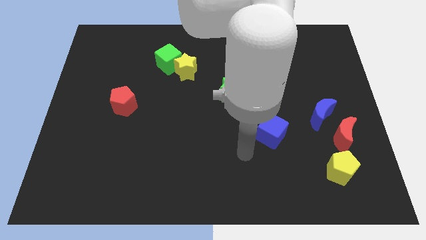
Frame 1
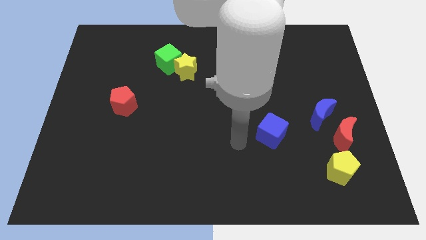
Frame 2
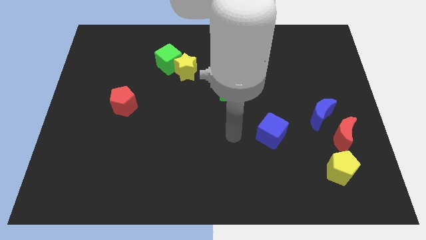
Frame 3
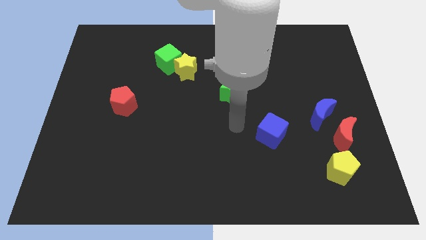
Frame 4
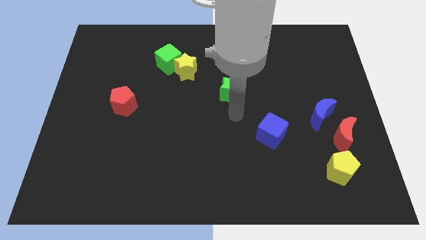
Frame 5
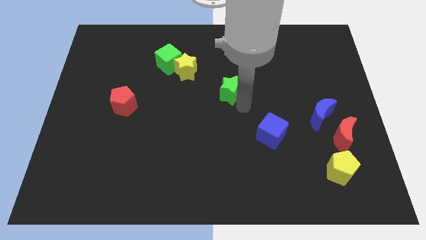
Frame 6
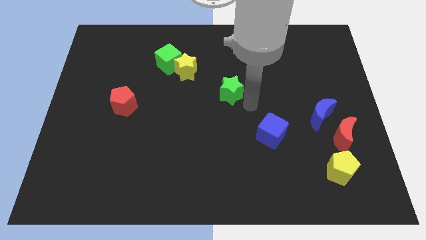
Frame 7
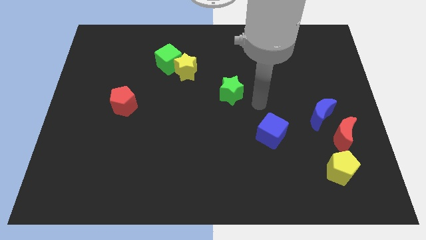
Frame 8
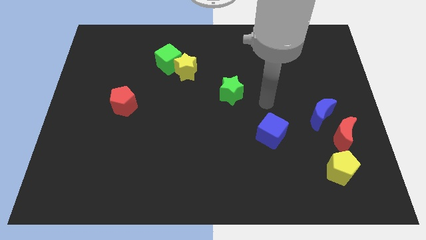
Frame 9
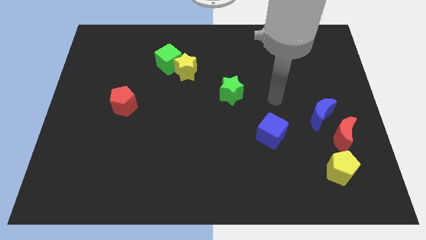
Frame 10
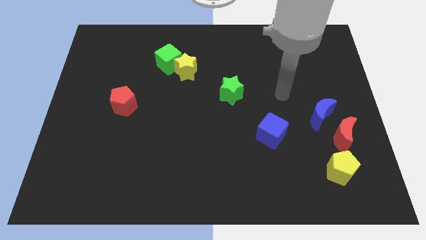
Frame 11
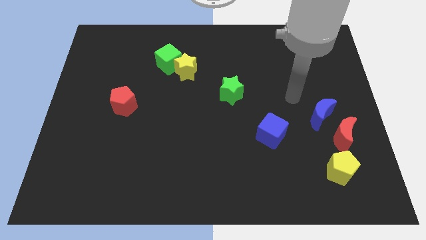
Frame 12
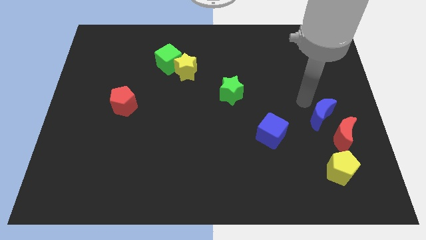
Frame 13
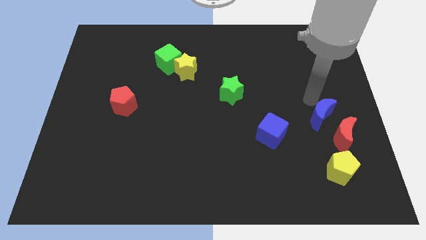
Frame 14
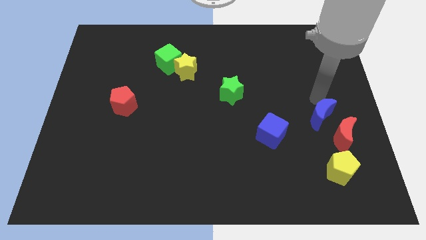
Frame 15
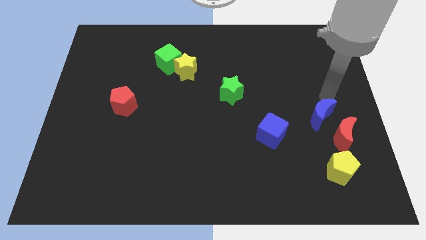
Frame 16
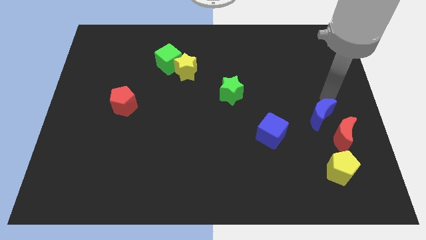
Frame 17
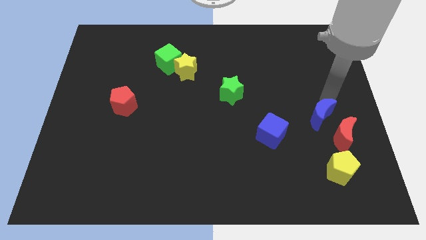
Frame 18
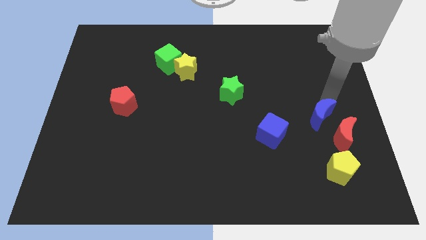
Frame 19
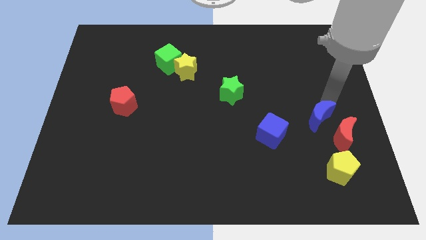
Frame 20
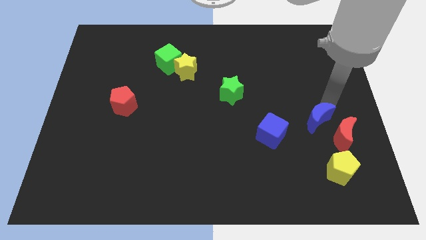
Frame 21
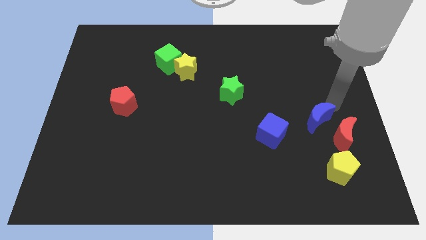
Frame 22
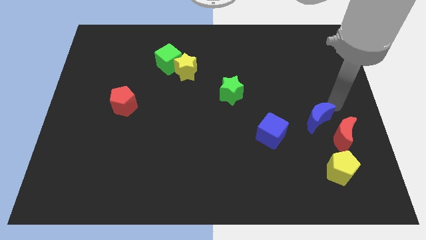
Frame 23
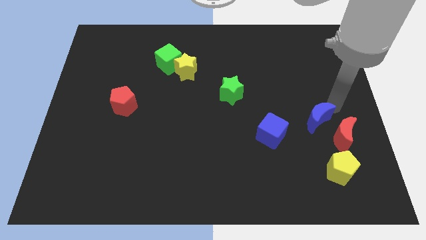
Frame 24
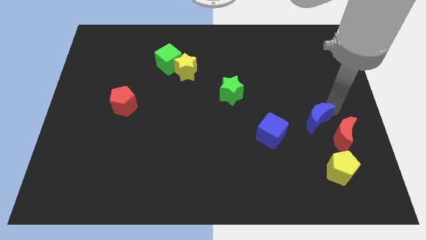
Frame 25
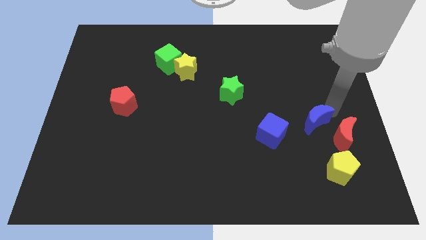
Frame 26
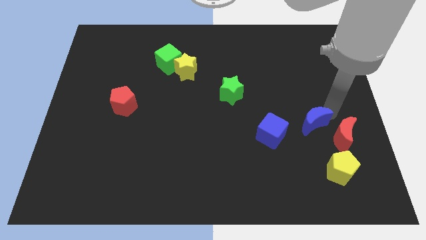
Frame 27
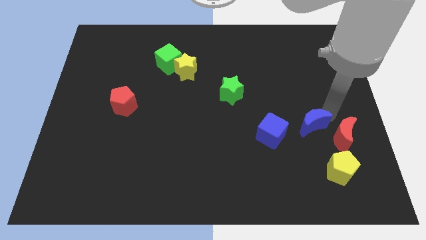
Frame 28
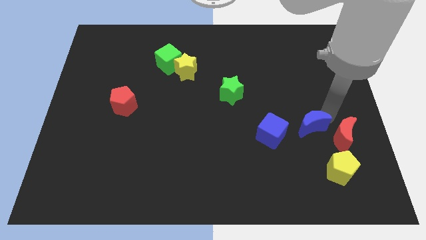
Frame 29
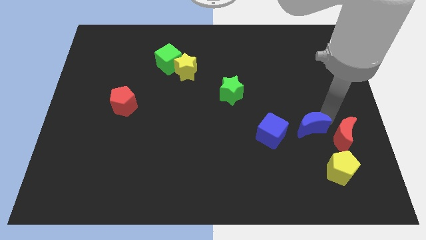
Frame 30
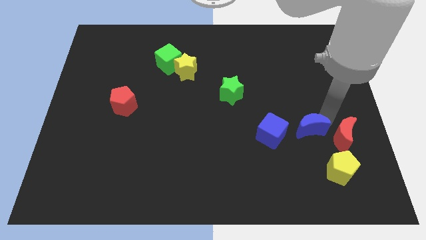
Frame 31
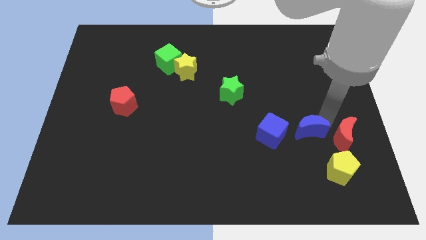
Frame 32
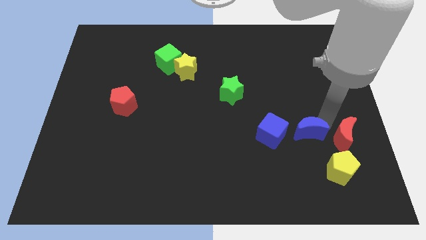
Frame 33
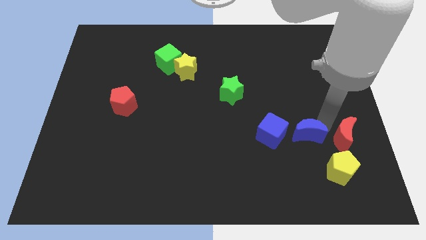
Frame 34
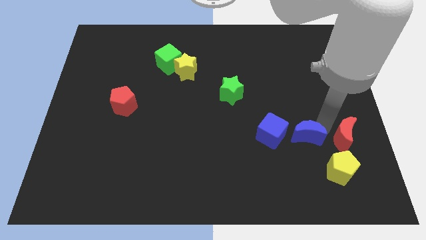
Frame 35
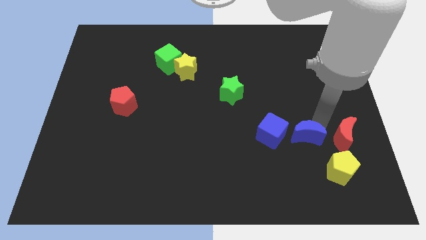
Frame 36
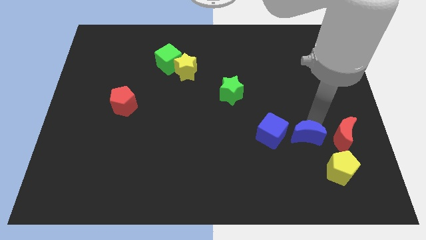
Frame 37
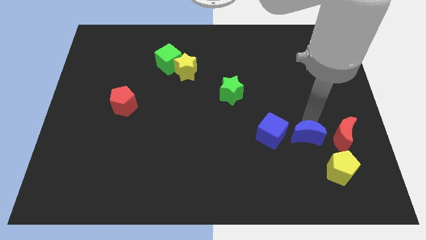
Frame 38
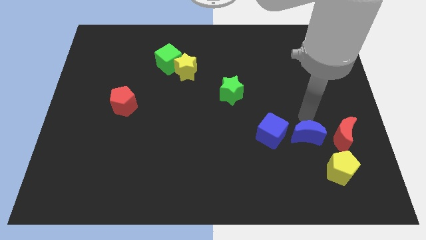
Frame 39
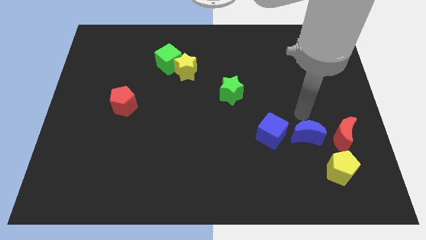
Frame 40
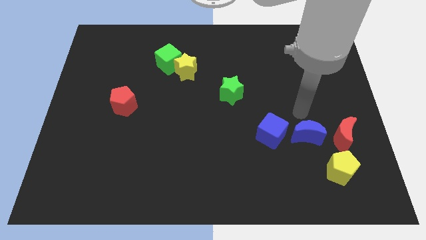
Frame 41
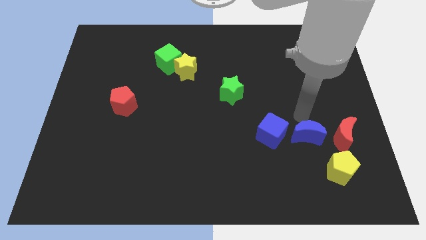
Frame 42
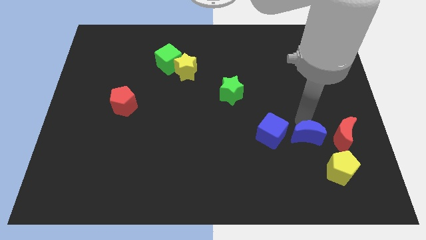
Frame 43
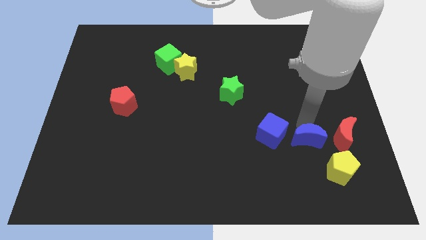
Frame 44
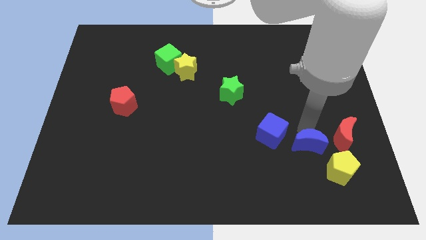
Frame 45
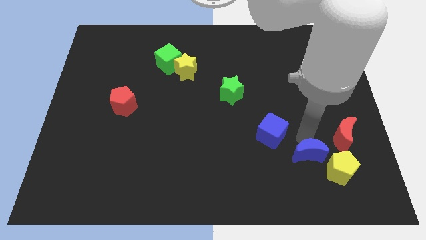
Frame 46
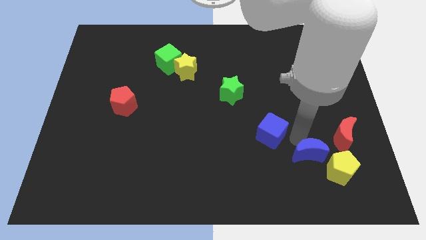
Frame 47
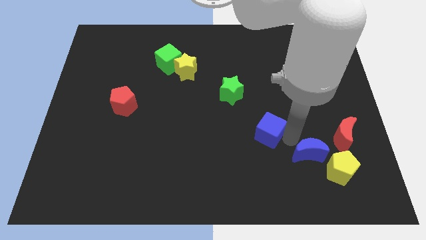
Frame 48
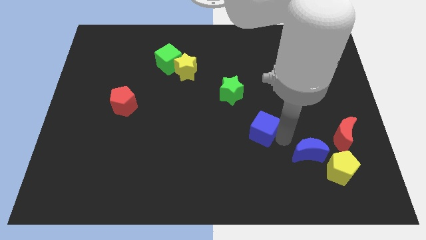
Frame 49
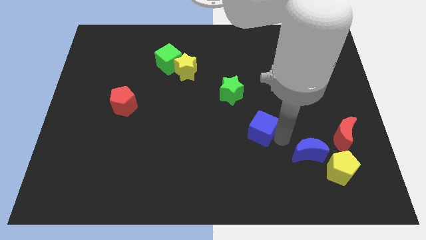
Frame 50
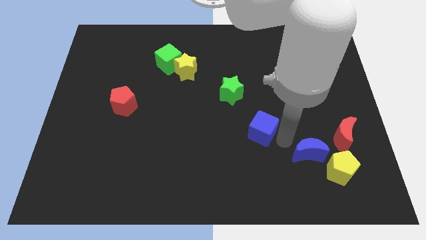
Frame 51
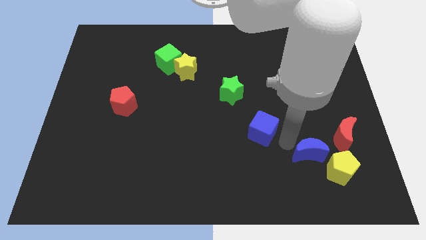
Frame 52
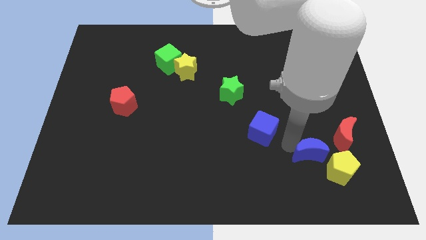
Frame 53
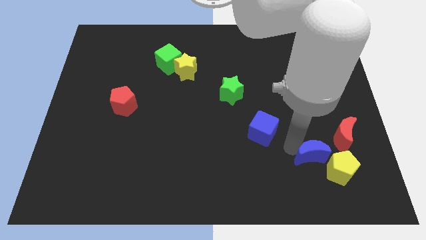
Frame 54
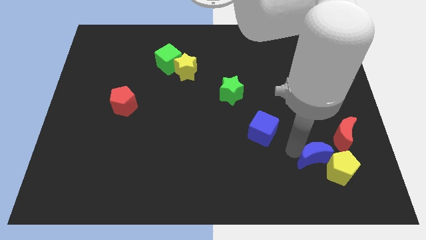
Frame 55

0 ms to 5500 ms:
slide the blue moon next to the yellow pentagon

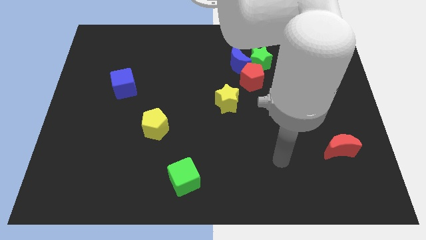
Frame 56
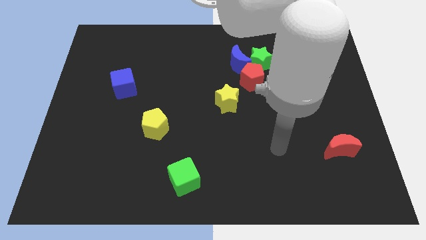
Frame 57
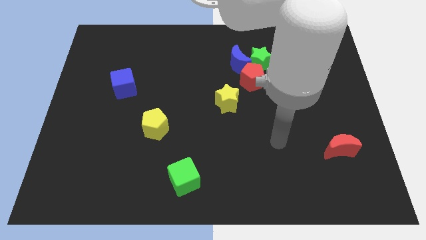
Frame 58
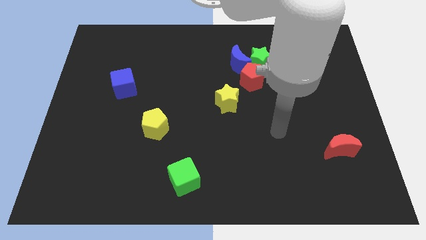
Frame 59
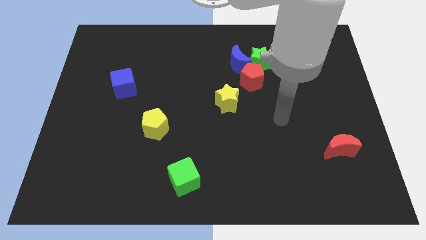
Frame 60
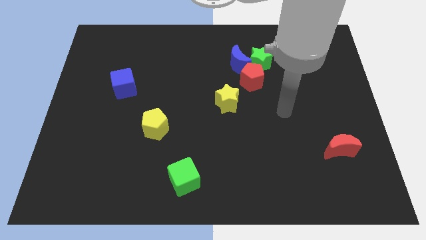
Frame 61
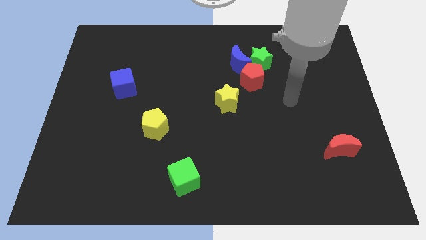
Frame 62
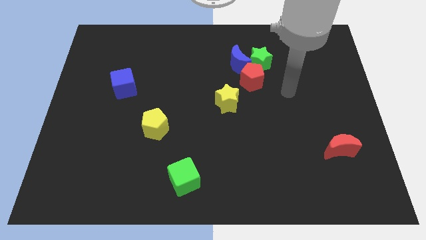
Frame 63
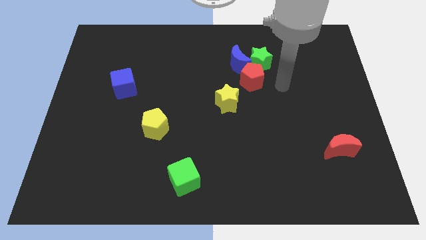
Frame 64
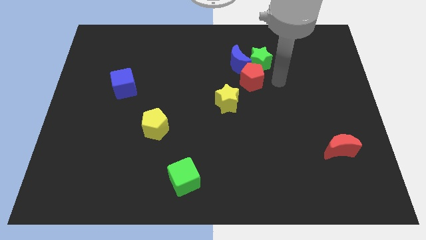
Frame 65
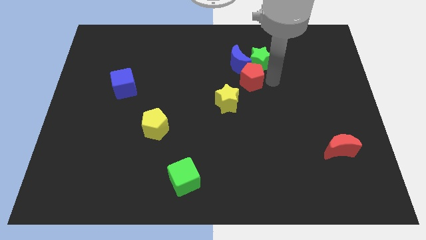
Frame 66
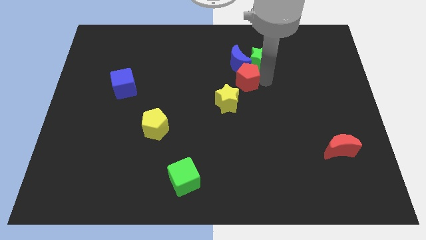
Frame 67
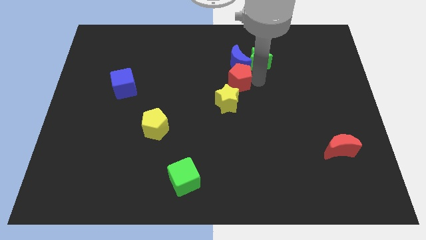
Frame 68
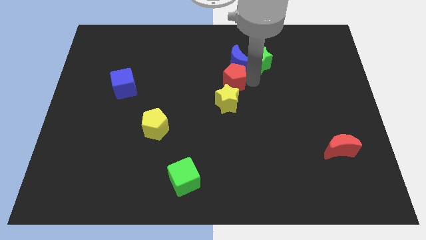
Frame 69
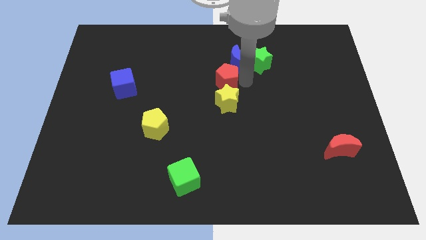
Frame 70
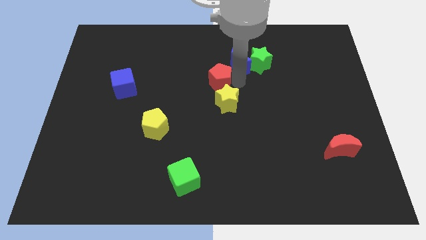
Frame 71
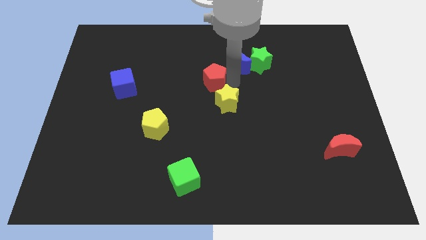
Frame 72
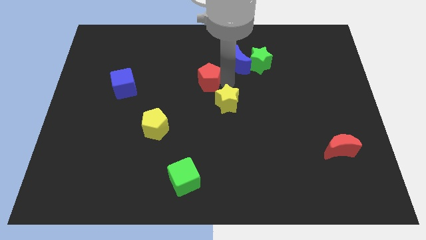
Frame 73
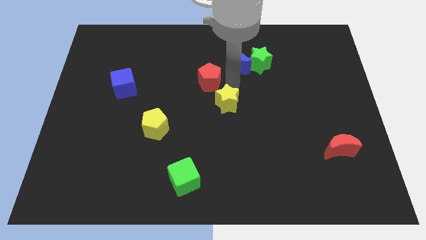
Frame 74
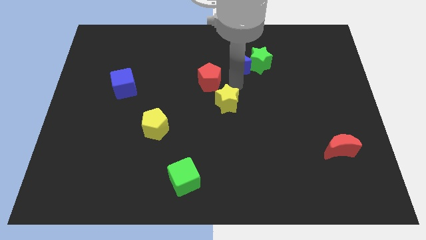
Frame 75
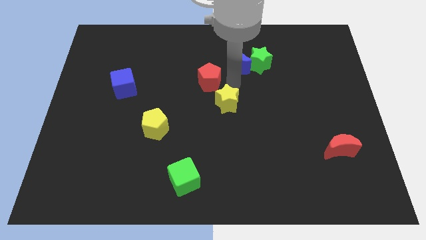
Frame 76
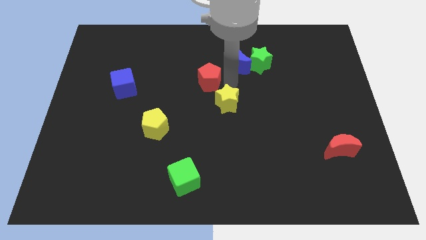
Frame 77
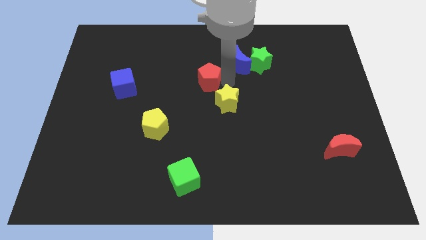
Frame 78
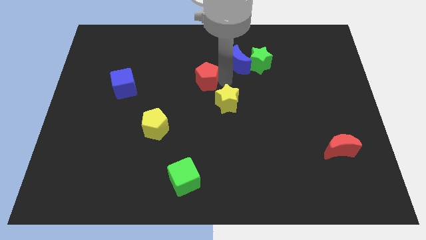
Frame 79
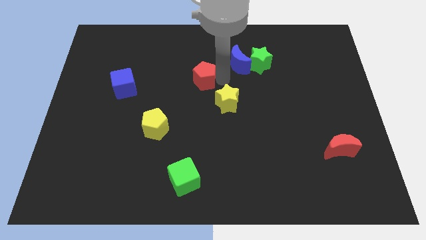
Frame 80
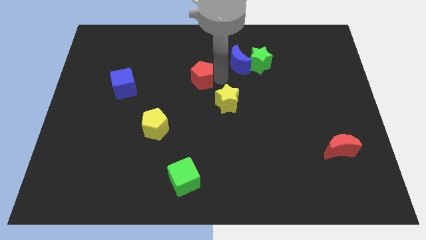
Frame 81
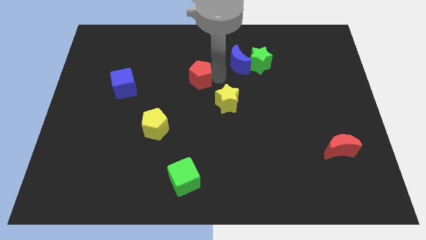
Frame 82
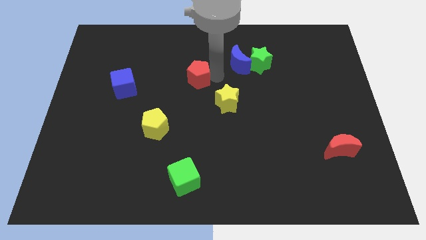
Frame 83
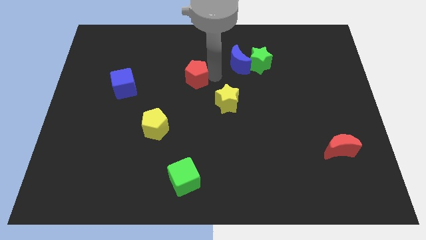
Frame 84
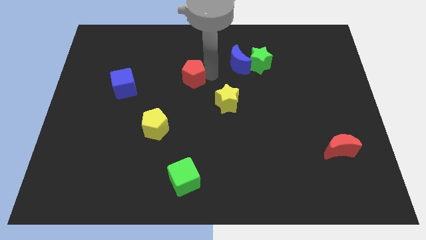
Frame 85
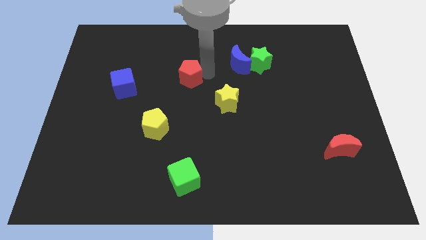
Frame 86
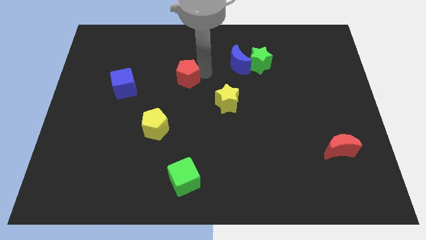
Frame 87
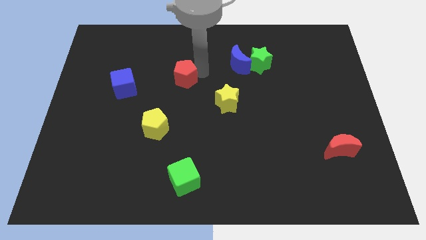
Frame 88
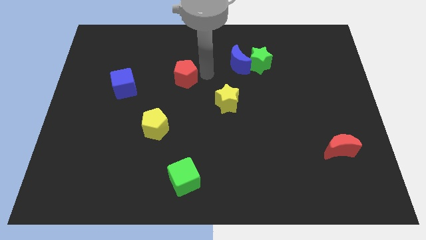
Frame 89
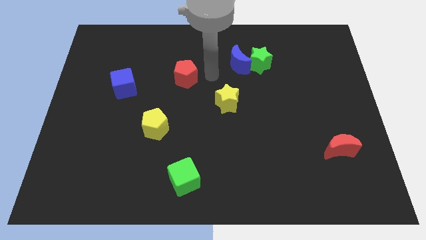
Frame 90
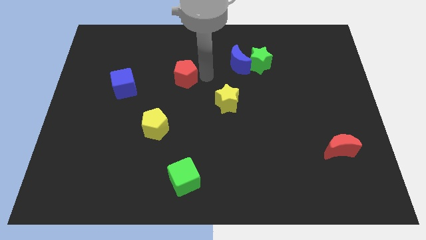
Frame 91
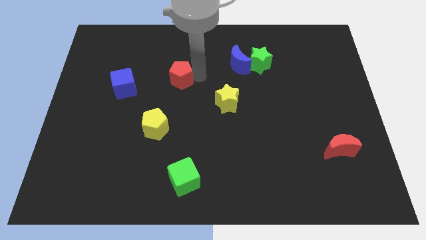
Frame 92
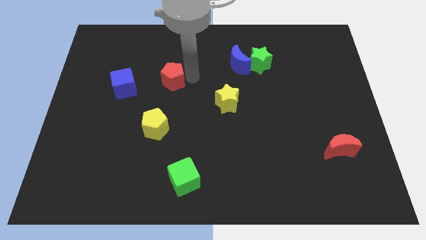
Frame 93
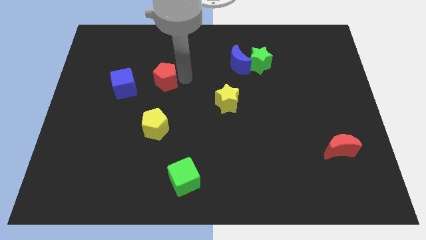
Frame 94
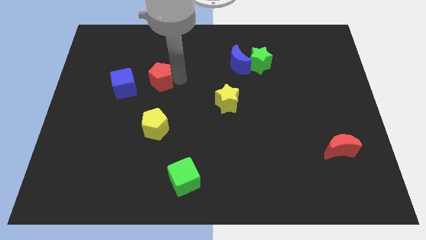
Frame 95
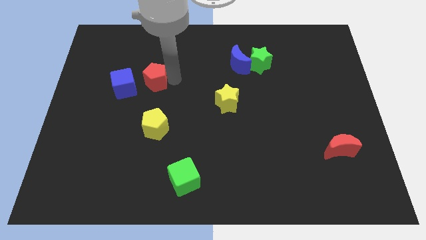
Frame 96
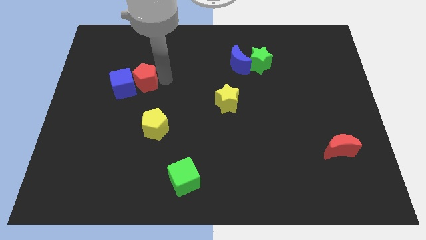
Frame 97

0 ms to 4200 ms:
slide the red pentagon towards the blue cube
